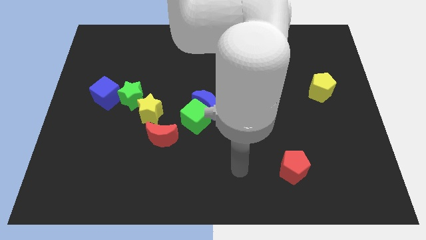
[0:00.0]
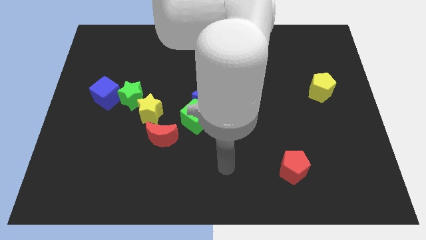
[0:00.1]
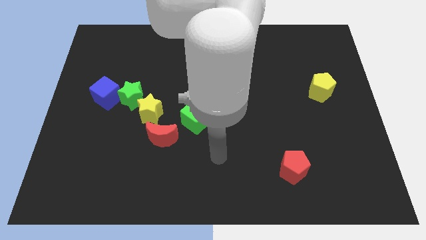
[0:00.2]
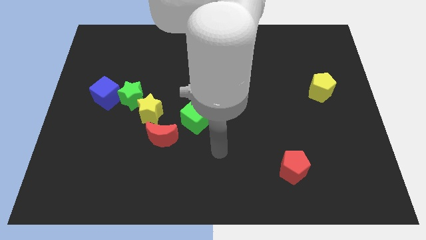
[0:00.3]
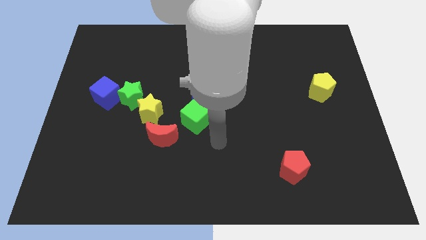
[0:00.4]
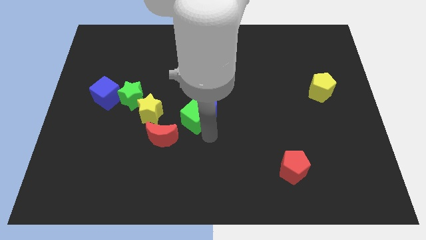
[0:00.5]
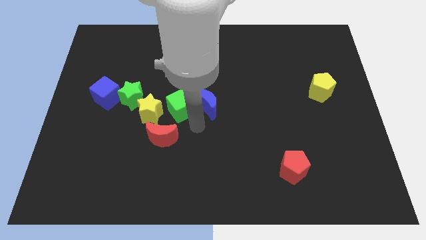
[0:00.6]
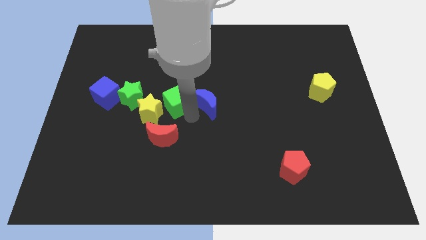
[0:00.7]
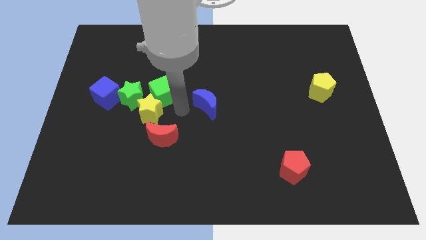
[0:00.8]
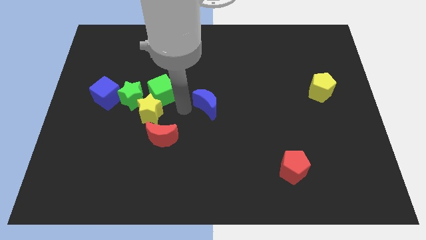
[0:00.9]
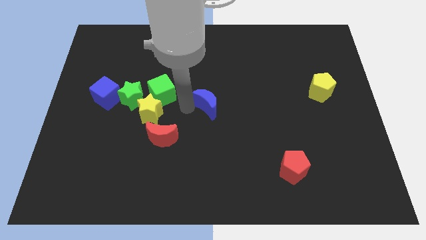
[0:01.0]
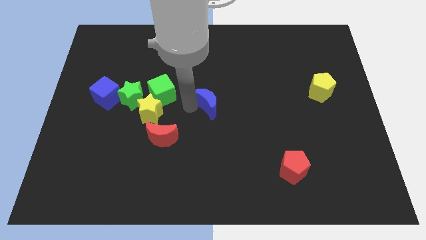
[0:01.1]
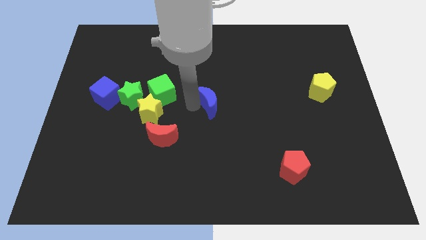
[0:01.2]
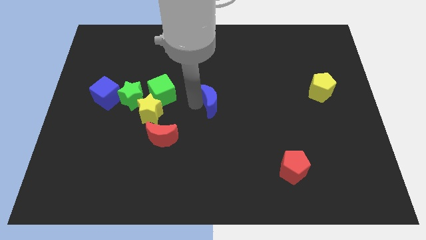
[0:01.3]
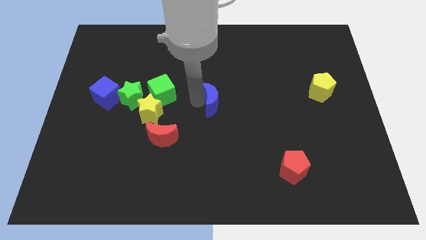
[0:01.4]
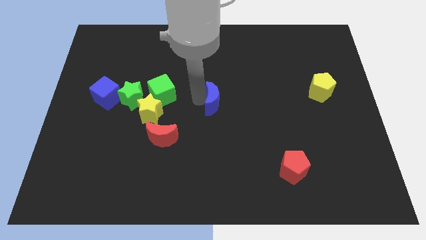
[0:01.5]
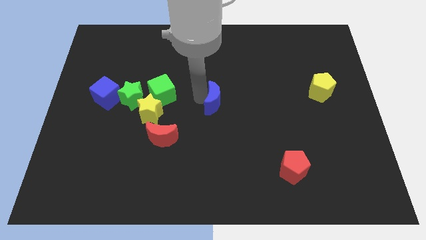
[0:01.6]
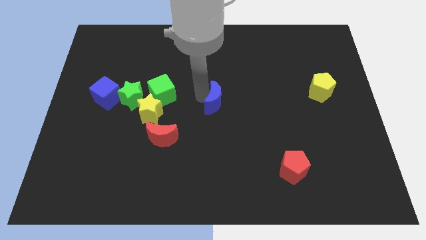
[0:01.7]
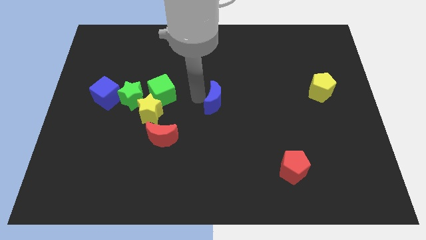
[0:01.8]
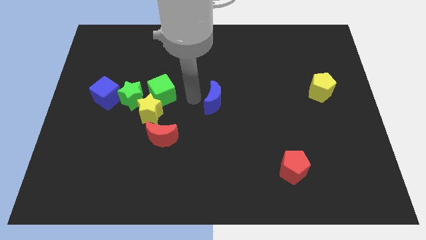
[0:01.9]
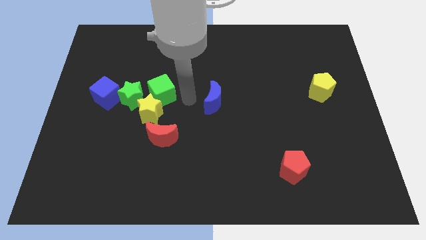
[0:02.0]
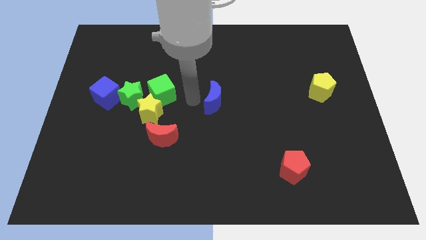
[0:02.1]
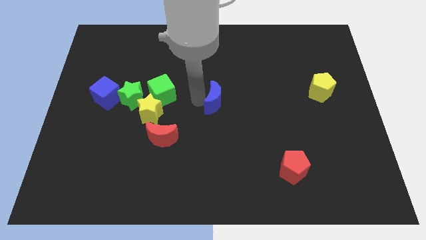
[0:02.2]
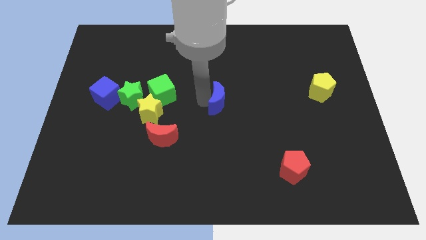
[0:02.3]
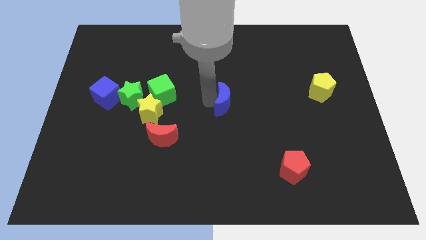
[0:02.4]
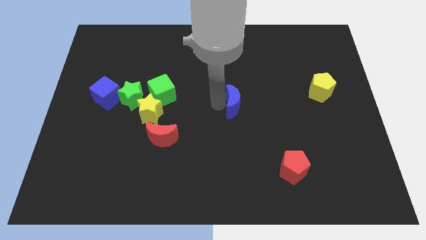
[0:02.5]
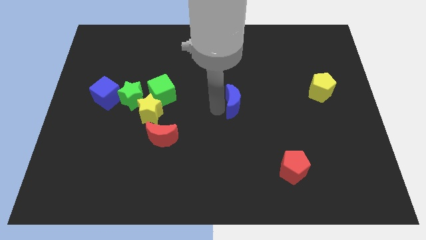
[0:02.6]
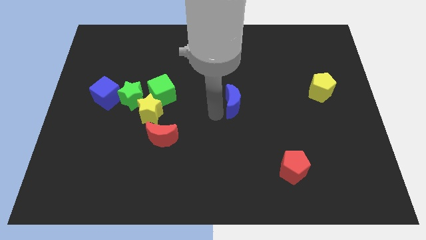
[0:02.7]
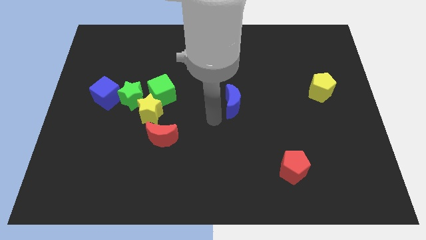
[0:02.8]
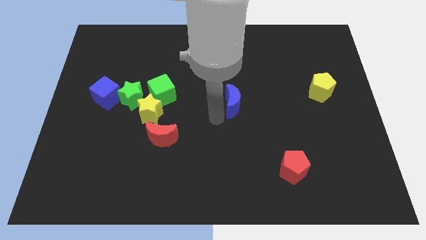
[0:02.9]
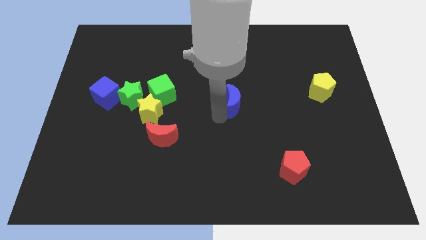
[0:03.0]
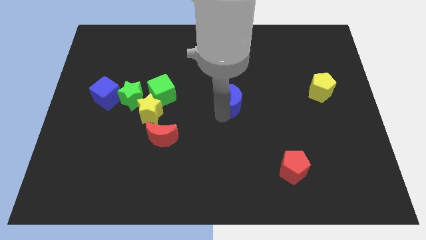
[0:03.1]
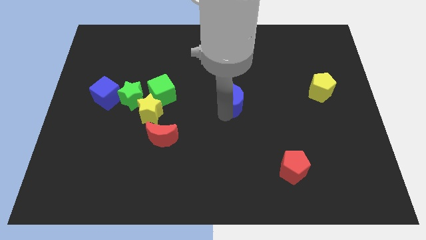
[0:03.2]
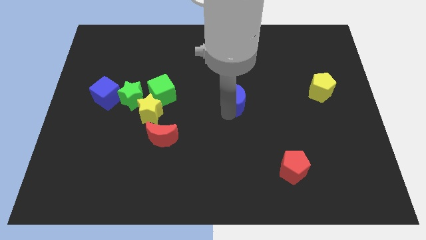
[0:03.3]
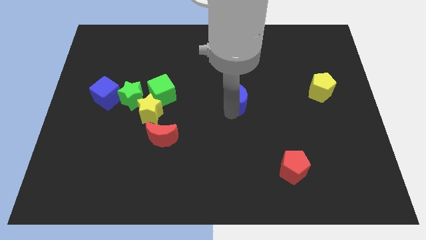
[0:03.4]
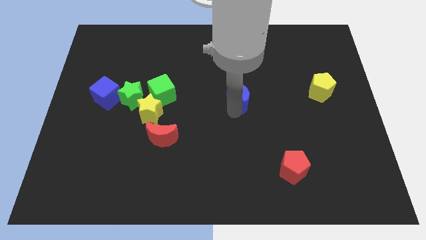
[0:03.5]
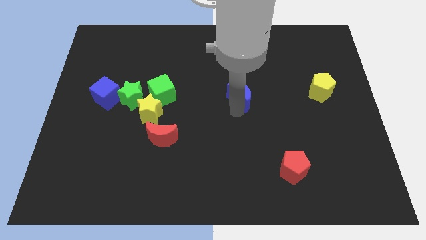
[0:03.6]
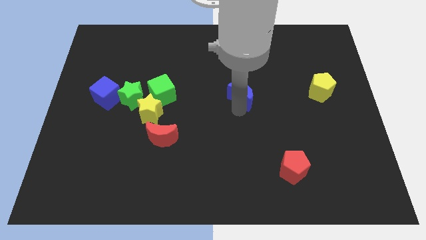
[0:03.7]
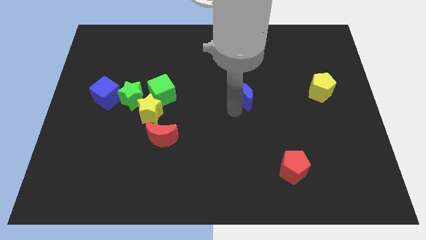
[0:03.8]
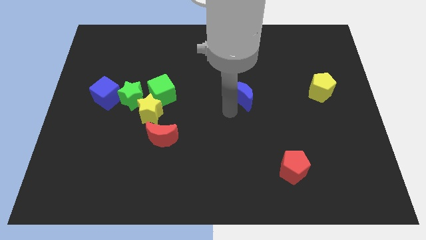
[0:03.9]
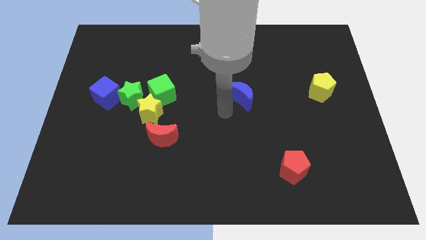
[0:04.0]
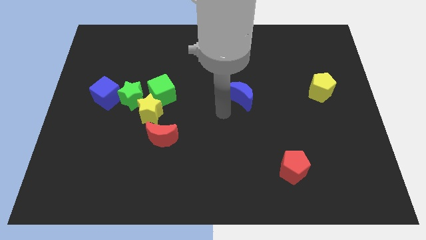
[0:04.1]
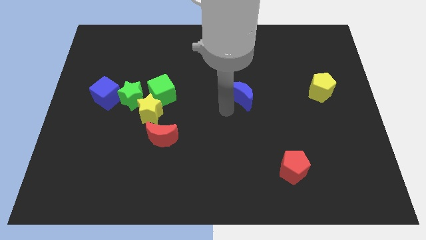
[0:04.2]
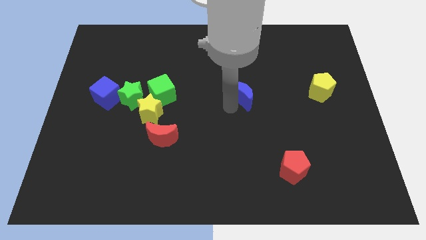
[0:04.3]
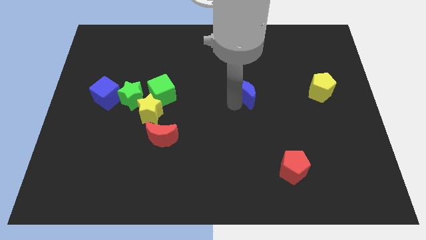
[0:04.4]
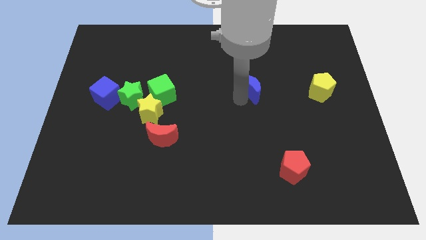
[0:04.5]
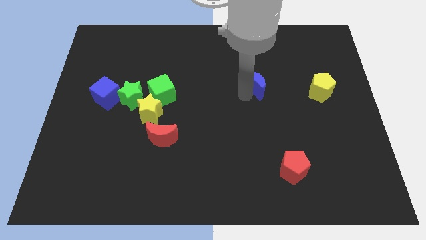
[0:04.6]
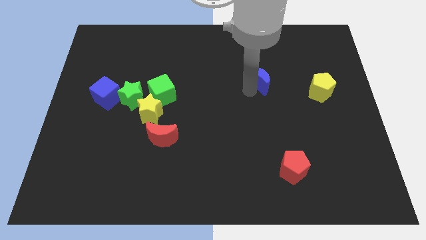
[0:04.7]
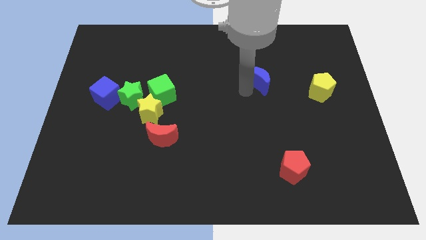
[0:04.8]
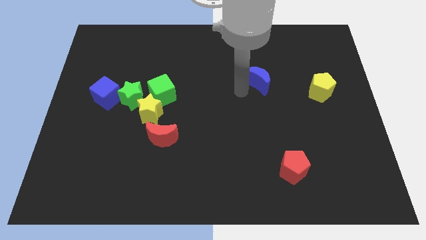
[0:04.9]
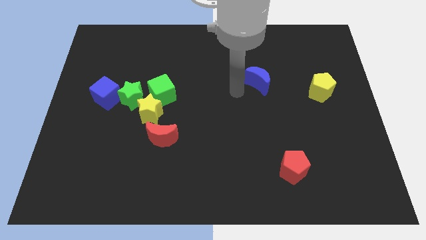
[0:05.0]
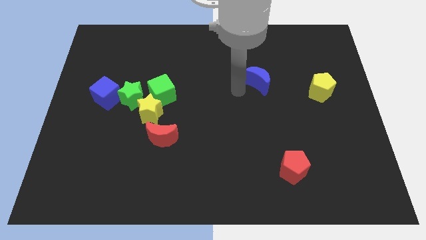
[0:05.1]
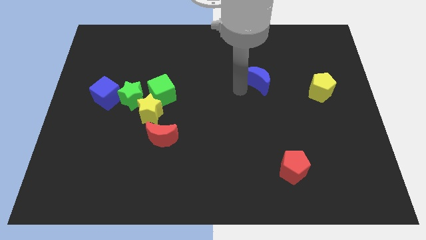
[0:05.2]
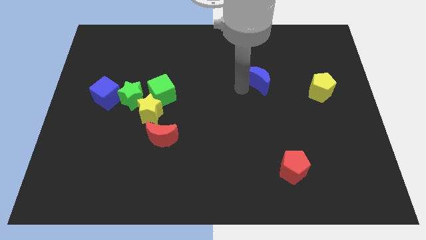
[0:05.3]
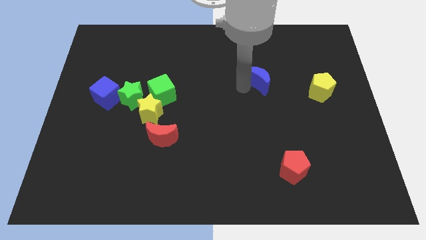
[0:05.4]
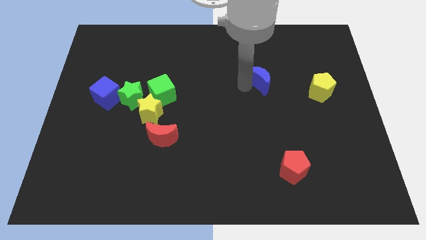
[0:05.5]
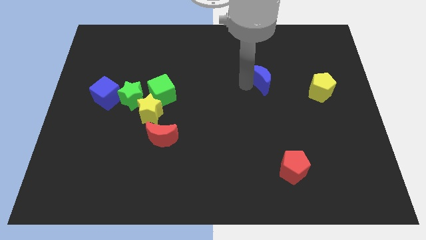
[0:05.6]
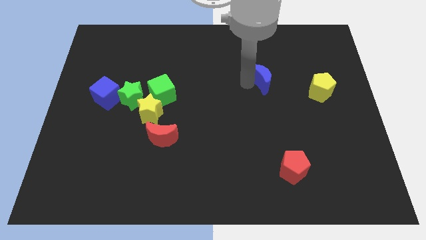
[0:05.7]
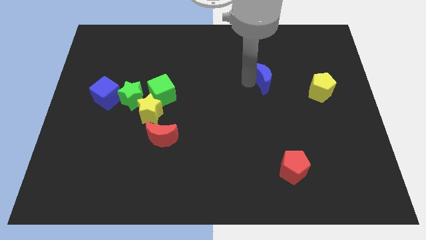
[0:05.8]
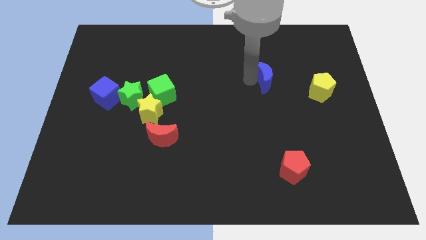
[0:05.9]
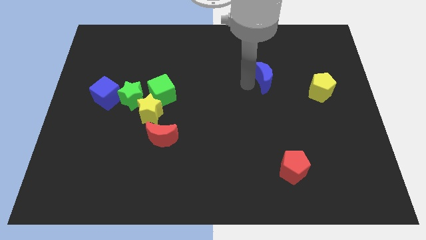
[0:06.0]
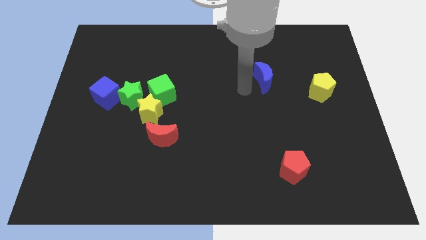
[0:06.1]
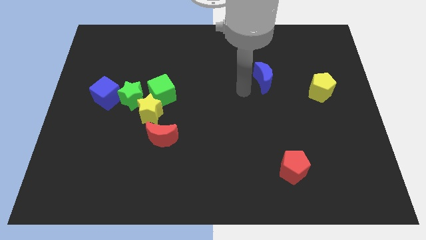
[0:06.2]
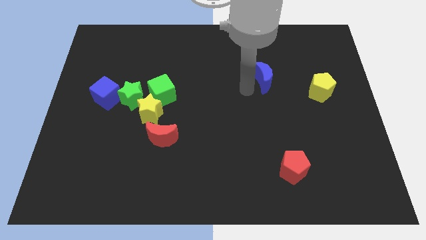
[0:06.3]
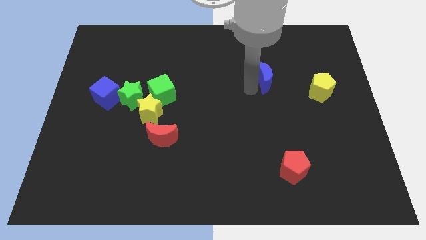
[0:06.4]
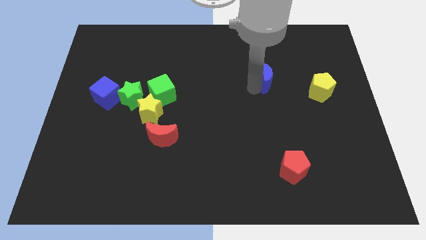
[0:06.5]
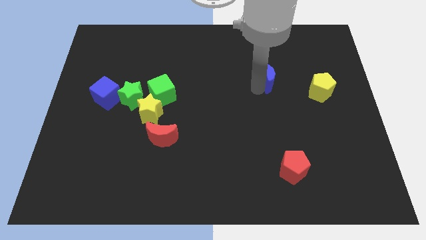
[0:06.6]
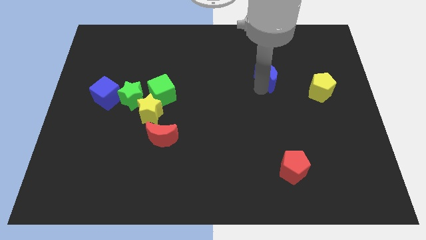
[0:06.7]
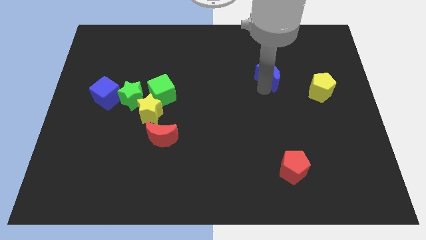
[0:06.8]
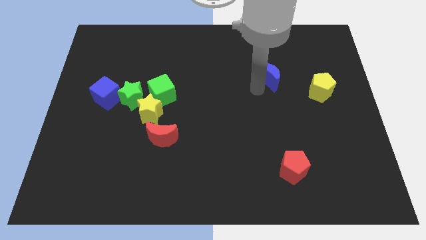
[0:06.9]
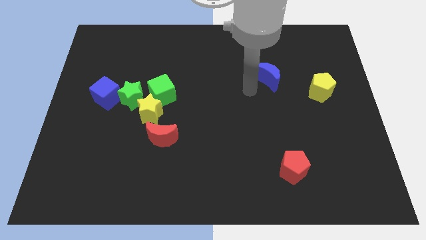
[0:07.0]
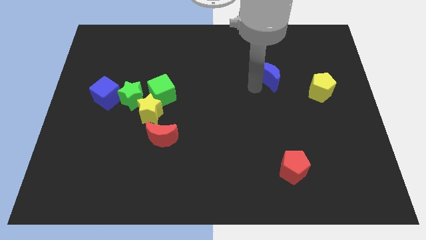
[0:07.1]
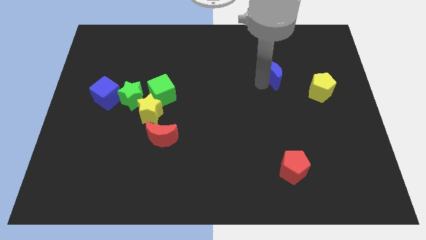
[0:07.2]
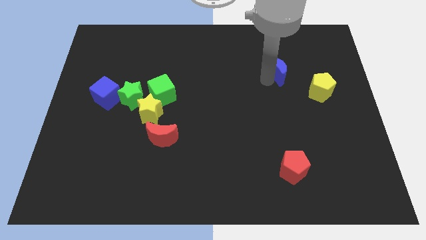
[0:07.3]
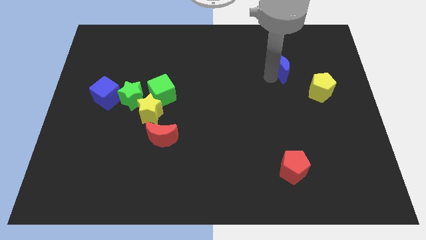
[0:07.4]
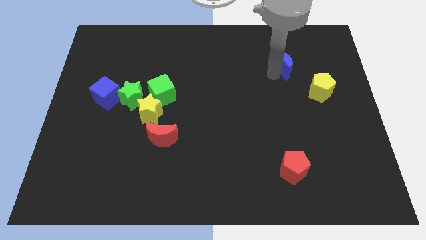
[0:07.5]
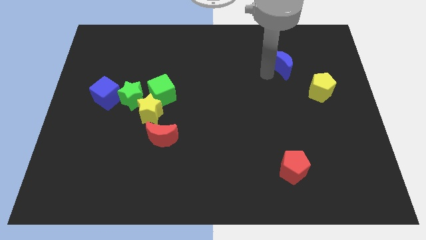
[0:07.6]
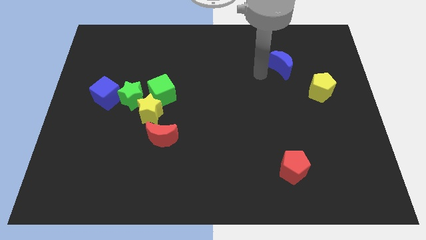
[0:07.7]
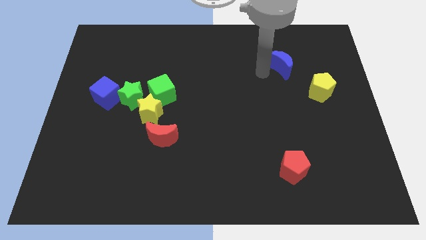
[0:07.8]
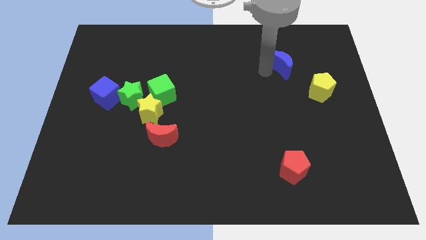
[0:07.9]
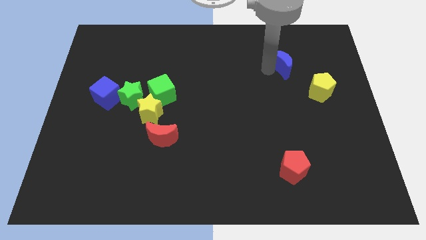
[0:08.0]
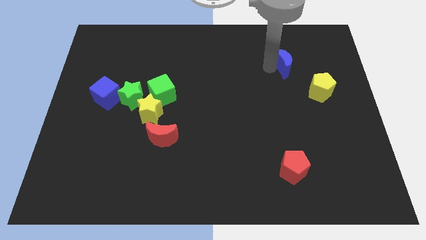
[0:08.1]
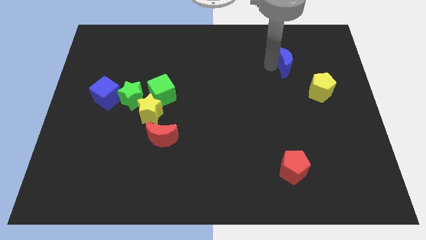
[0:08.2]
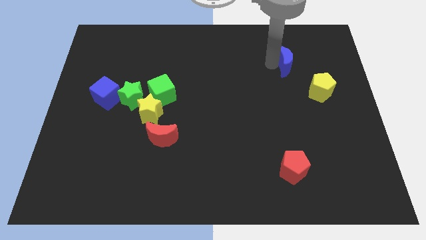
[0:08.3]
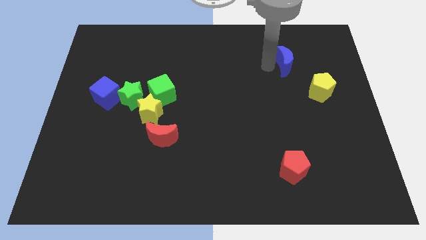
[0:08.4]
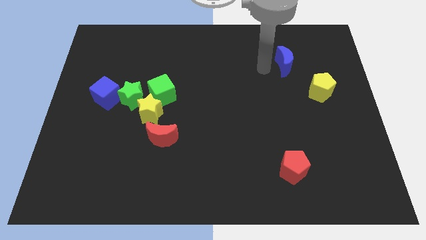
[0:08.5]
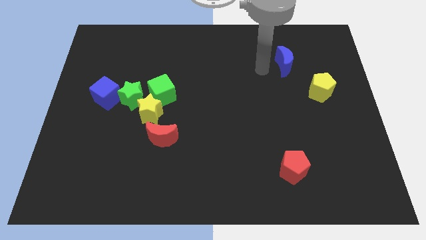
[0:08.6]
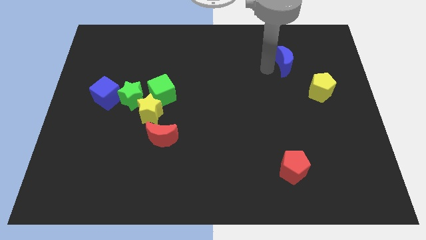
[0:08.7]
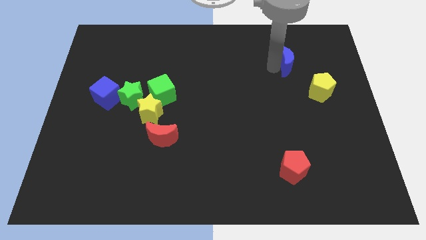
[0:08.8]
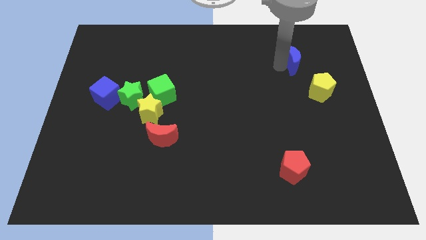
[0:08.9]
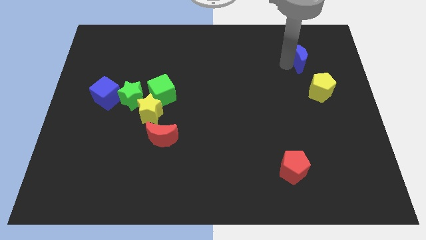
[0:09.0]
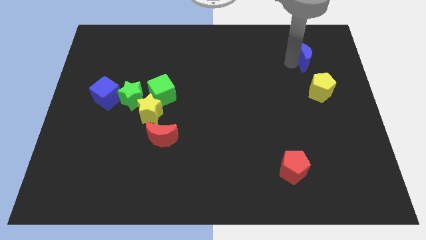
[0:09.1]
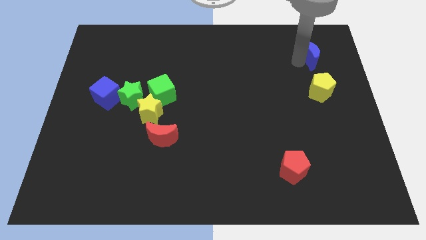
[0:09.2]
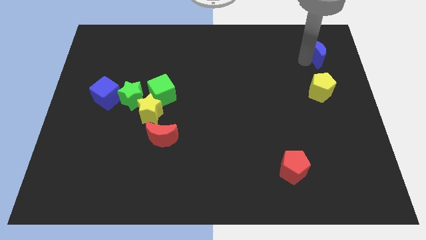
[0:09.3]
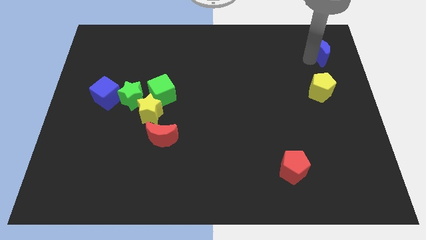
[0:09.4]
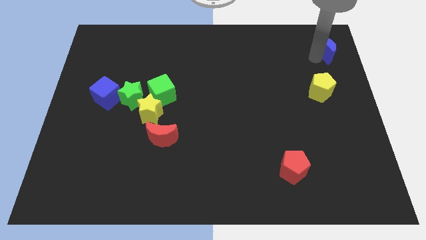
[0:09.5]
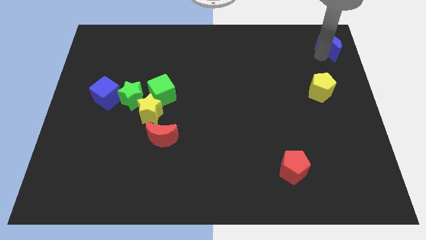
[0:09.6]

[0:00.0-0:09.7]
put the blue moon to the top right of the board
